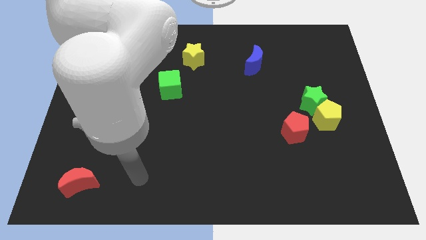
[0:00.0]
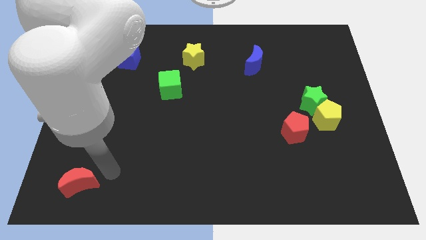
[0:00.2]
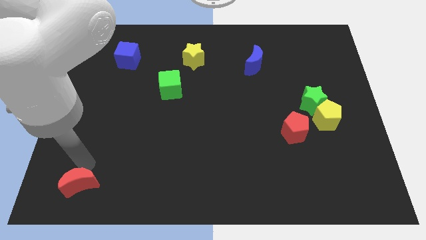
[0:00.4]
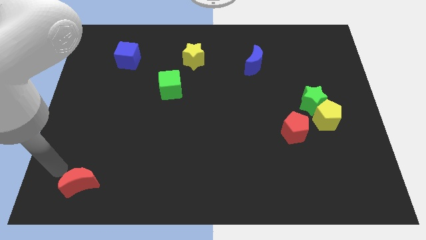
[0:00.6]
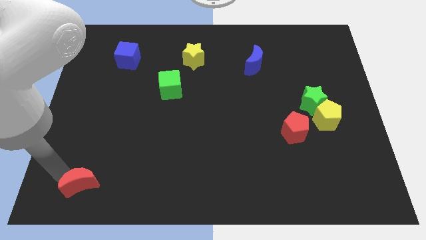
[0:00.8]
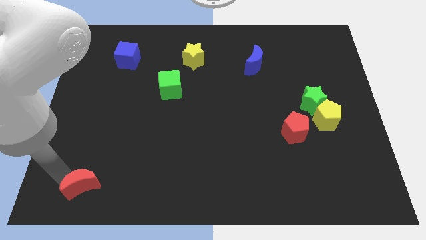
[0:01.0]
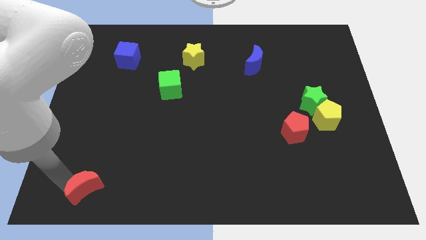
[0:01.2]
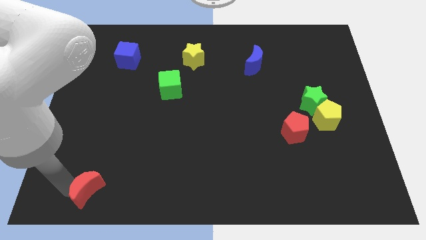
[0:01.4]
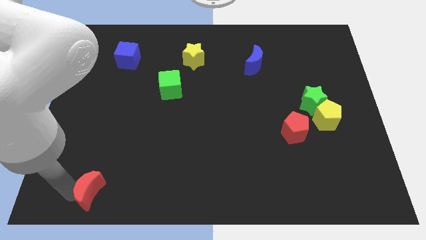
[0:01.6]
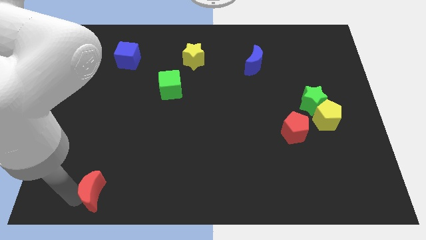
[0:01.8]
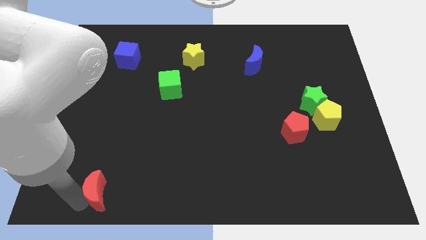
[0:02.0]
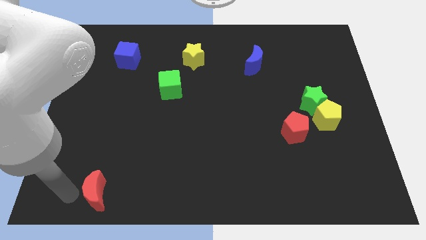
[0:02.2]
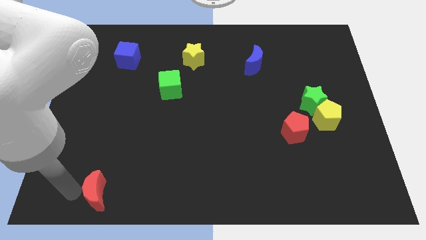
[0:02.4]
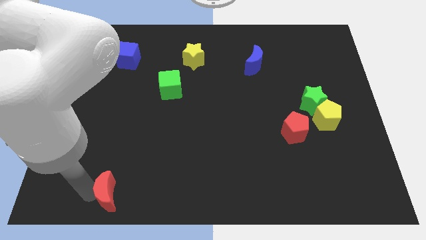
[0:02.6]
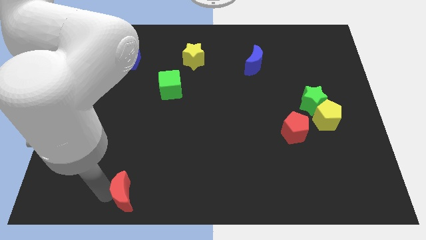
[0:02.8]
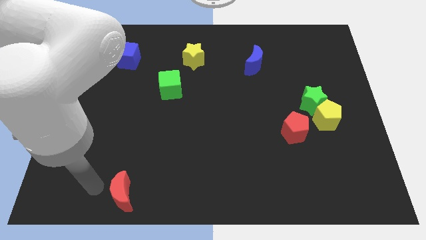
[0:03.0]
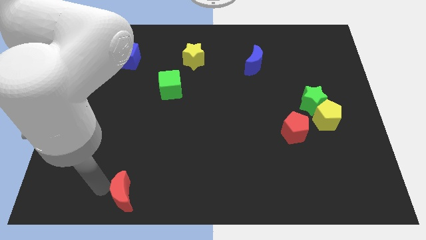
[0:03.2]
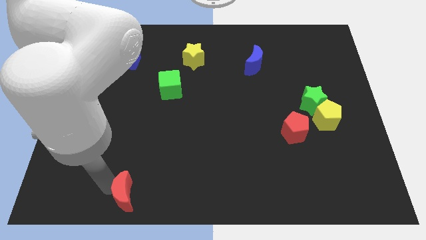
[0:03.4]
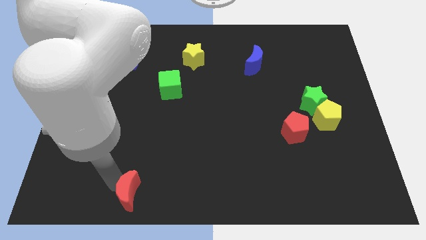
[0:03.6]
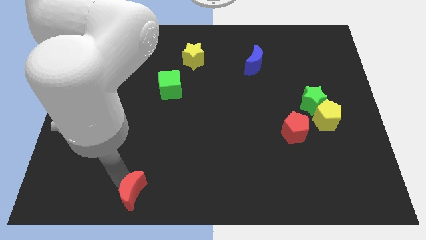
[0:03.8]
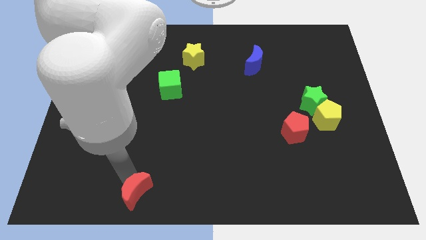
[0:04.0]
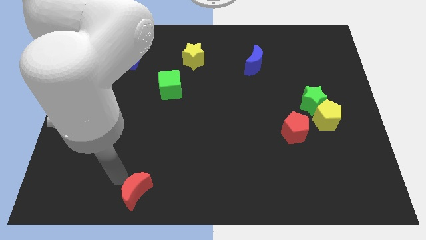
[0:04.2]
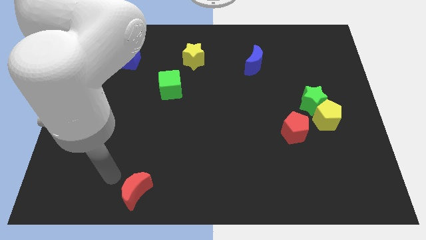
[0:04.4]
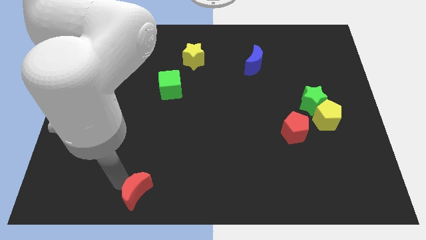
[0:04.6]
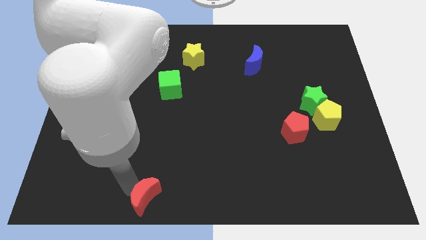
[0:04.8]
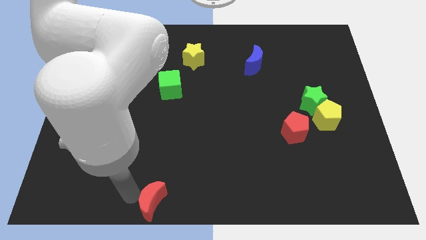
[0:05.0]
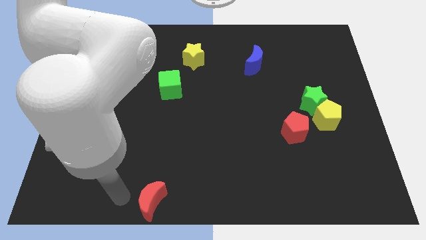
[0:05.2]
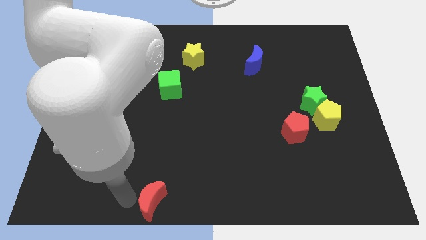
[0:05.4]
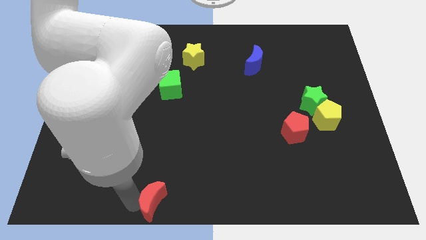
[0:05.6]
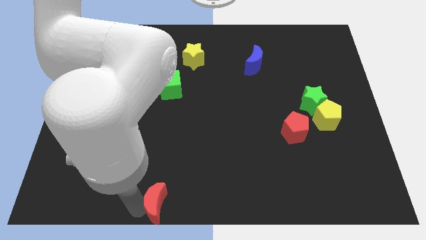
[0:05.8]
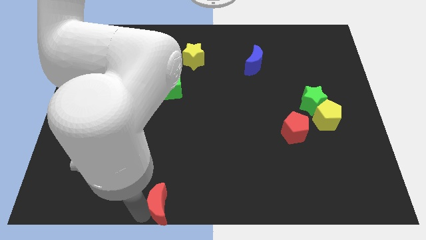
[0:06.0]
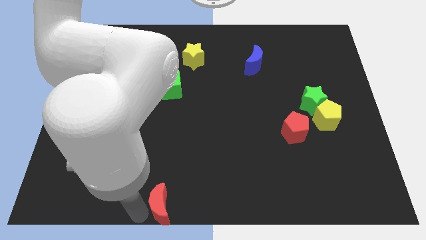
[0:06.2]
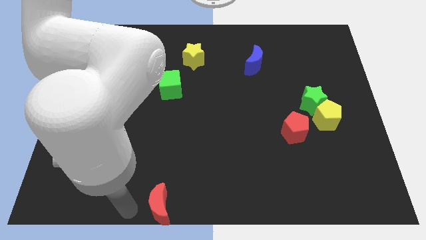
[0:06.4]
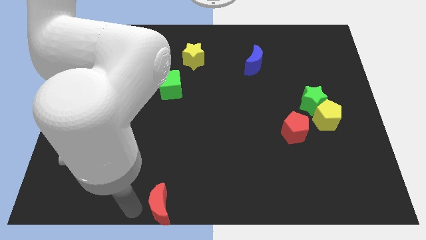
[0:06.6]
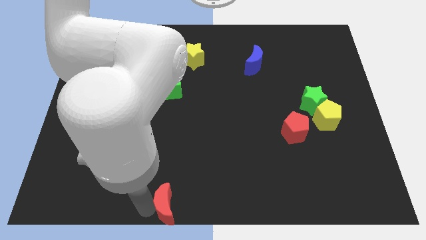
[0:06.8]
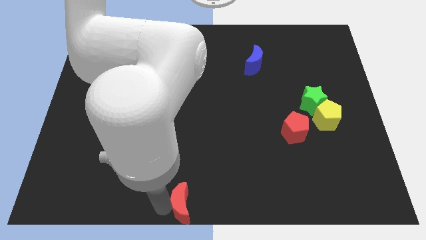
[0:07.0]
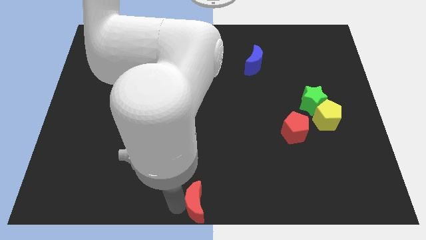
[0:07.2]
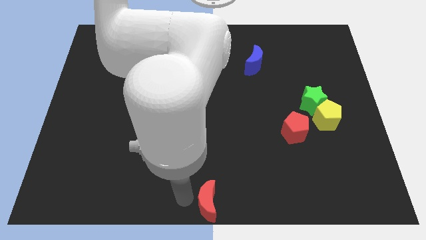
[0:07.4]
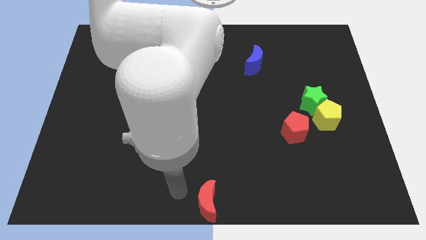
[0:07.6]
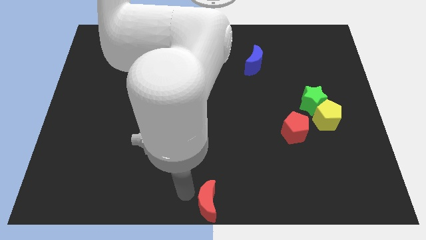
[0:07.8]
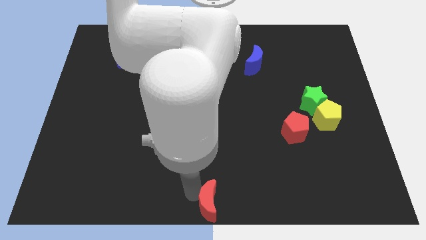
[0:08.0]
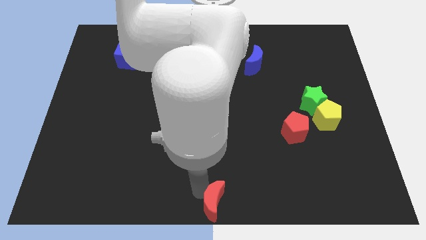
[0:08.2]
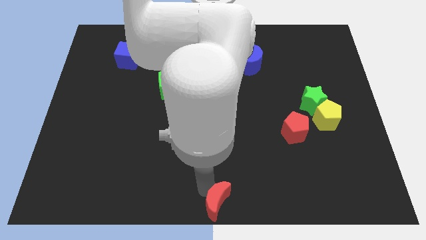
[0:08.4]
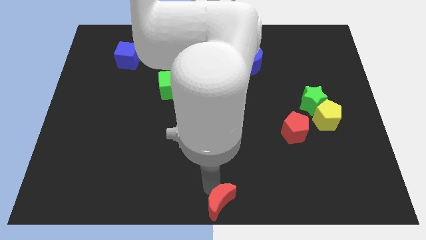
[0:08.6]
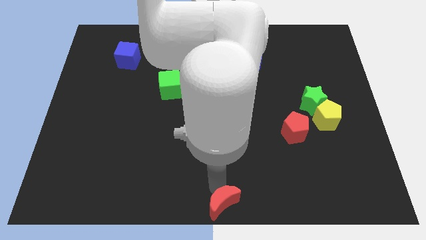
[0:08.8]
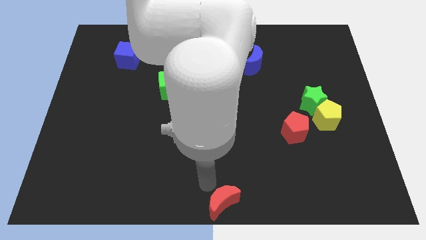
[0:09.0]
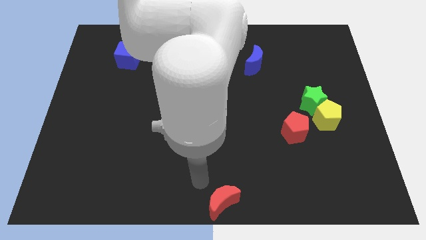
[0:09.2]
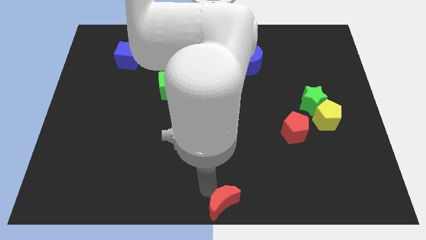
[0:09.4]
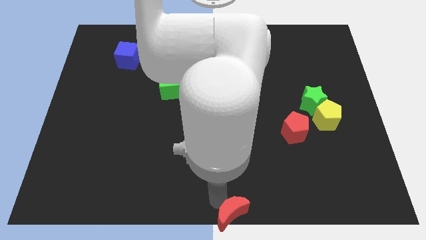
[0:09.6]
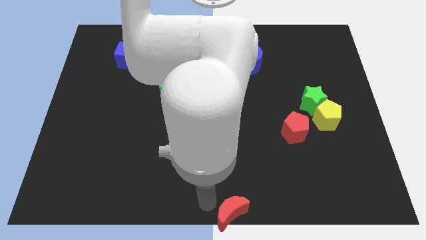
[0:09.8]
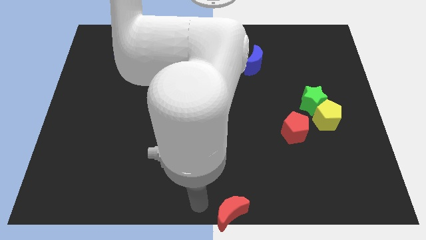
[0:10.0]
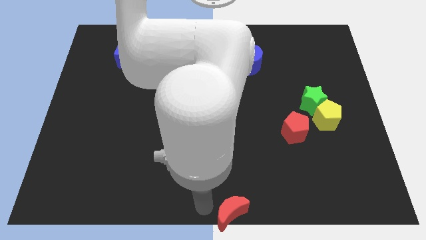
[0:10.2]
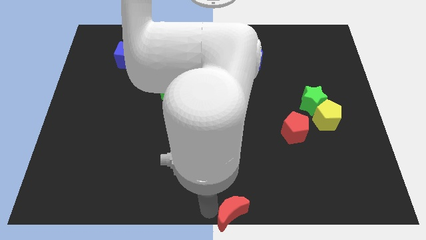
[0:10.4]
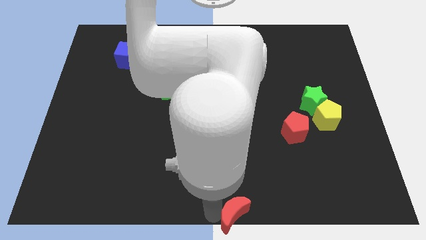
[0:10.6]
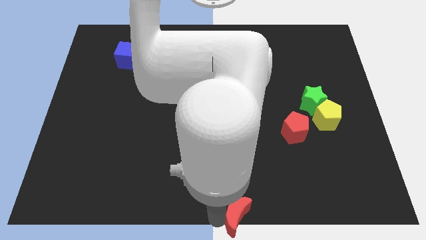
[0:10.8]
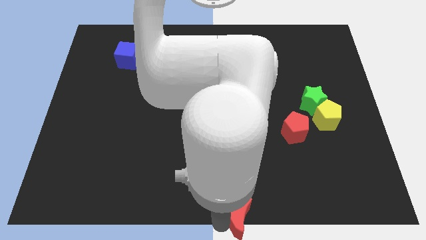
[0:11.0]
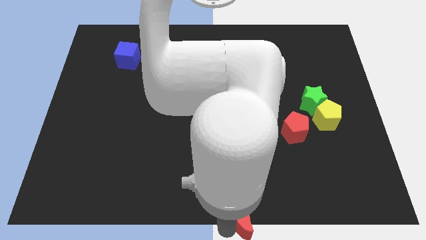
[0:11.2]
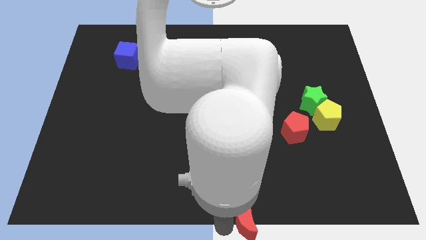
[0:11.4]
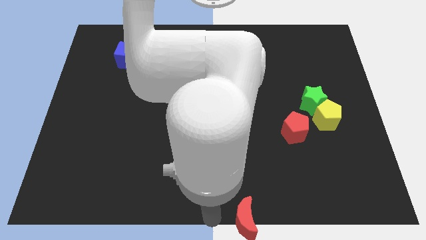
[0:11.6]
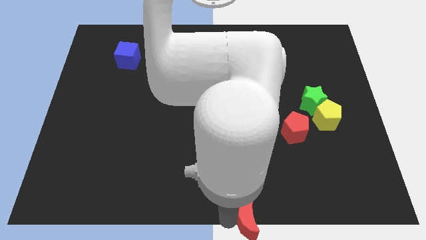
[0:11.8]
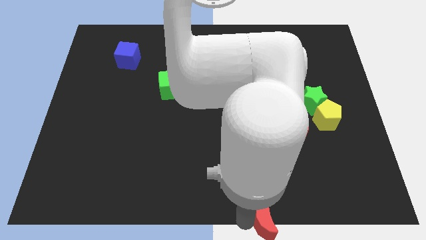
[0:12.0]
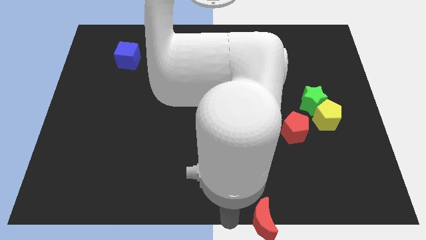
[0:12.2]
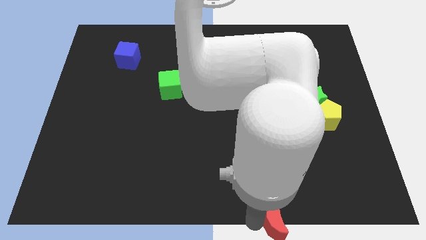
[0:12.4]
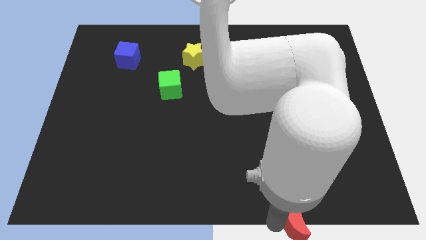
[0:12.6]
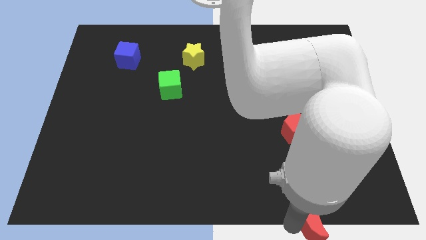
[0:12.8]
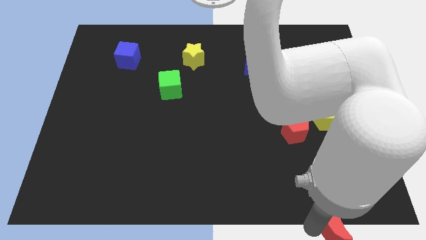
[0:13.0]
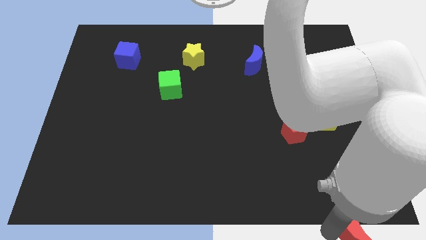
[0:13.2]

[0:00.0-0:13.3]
move the red moon to the bottom right of the board
